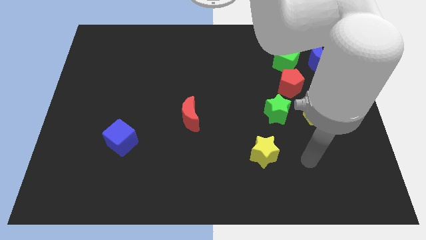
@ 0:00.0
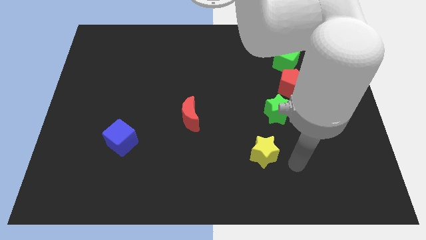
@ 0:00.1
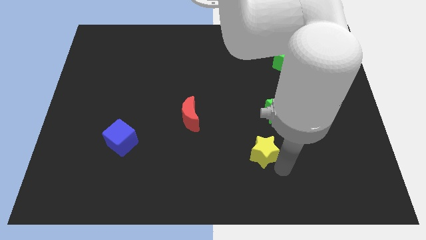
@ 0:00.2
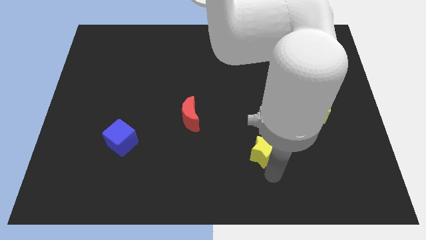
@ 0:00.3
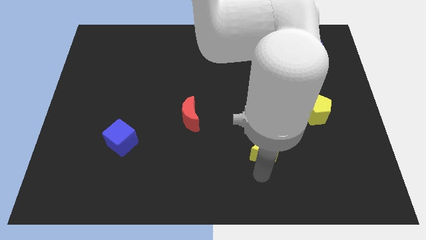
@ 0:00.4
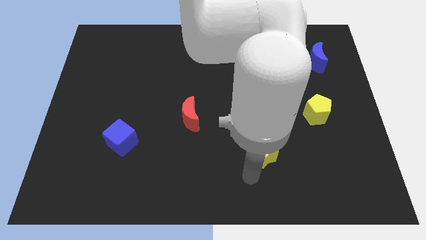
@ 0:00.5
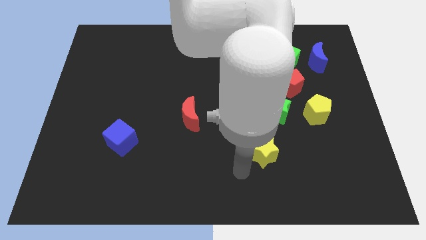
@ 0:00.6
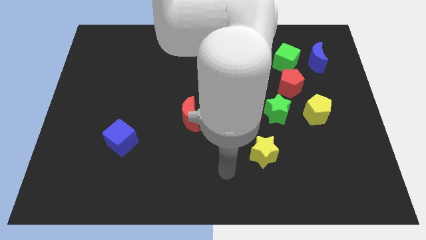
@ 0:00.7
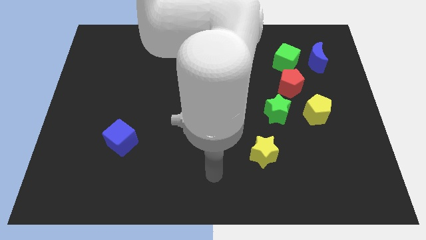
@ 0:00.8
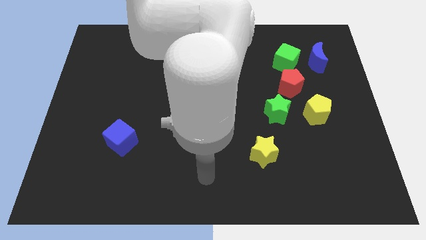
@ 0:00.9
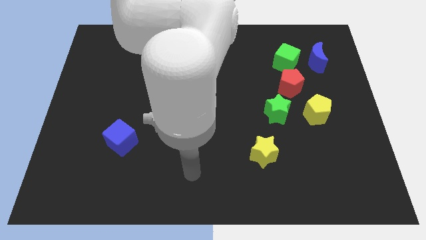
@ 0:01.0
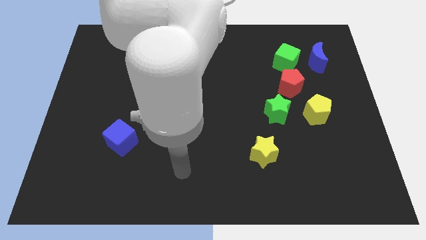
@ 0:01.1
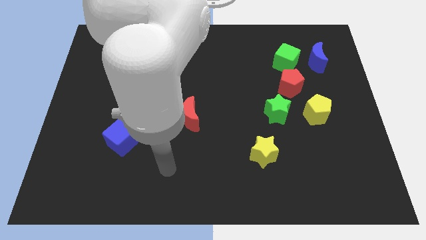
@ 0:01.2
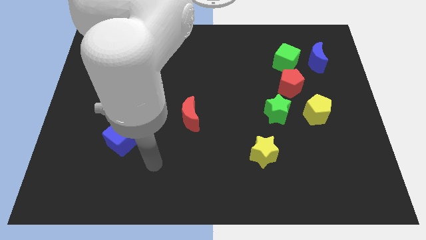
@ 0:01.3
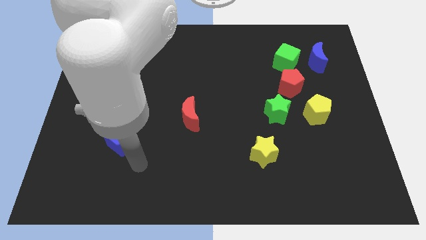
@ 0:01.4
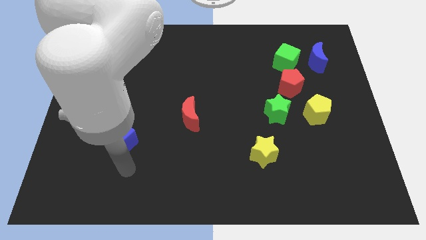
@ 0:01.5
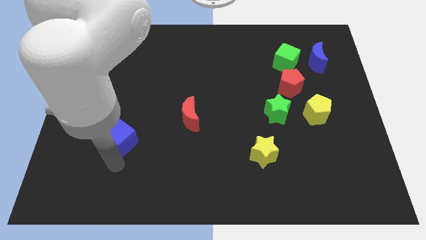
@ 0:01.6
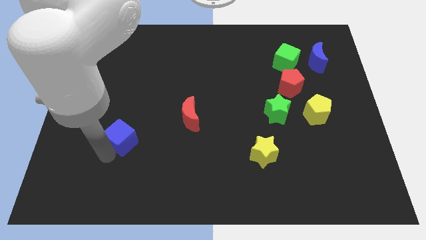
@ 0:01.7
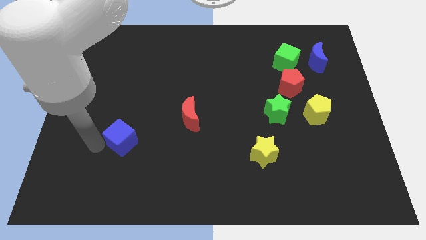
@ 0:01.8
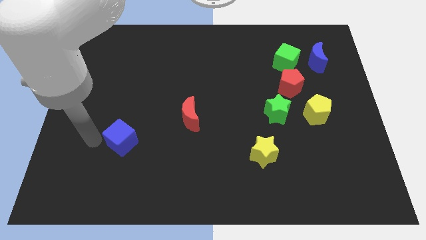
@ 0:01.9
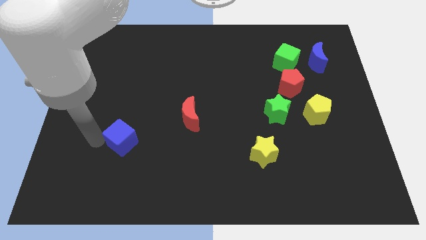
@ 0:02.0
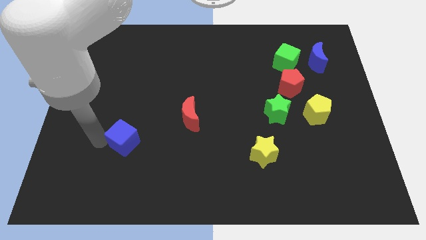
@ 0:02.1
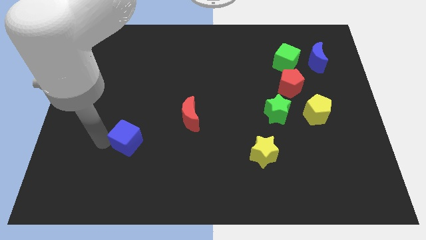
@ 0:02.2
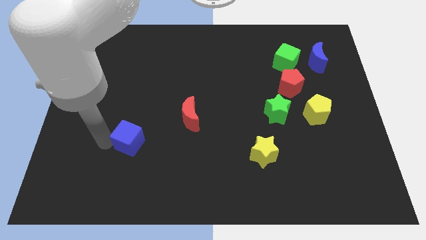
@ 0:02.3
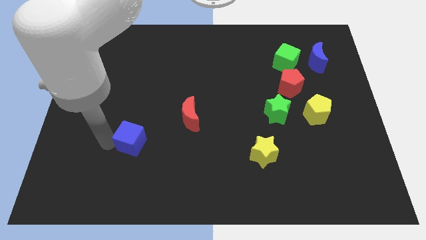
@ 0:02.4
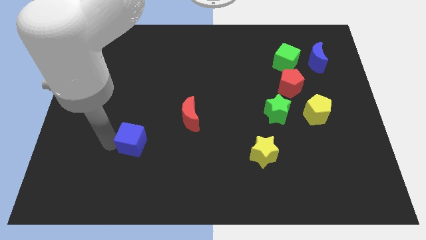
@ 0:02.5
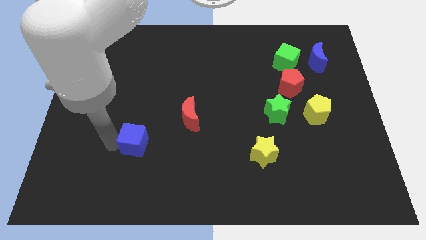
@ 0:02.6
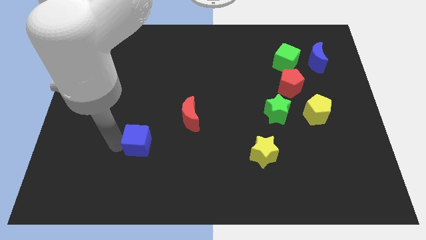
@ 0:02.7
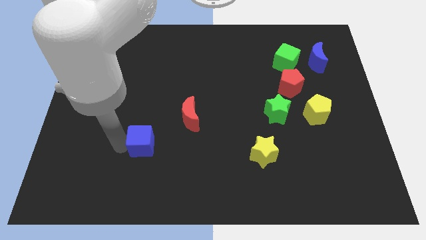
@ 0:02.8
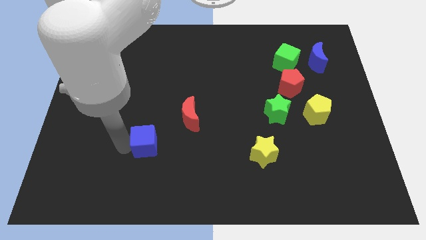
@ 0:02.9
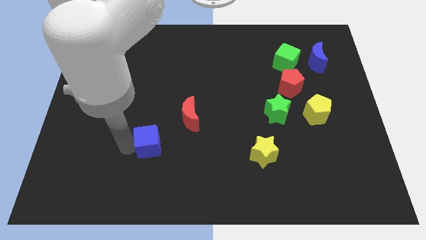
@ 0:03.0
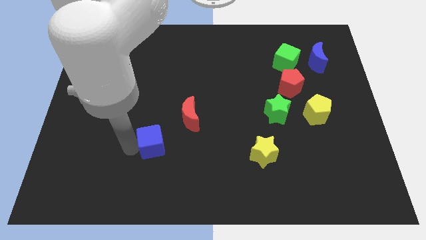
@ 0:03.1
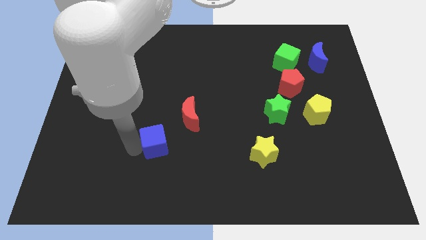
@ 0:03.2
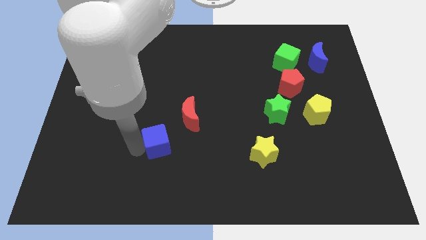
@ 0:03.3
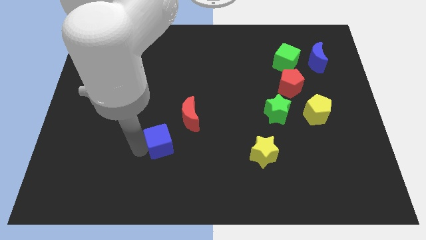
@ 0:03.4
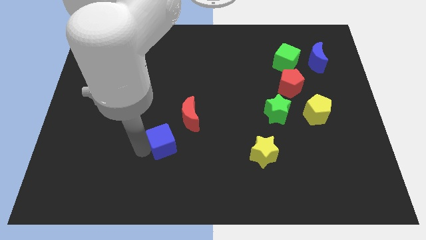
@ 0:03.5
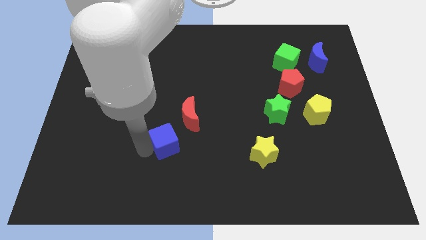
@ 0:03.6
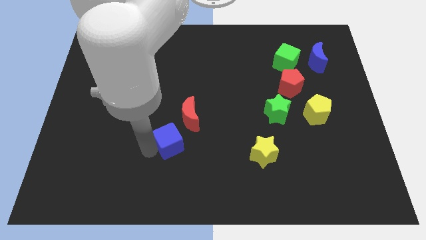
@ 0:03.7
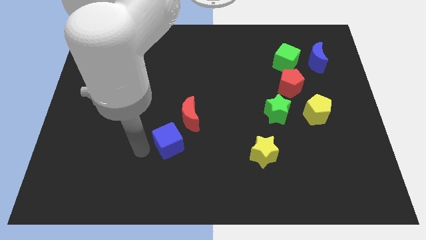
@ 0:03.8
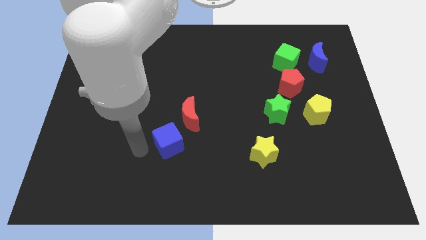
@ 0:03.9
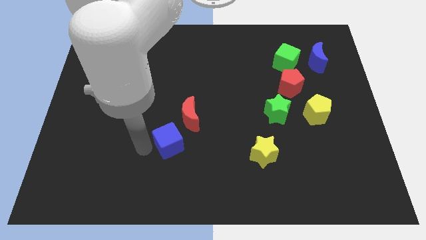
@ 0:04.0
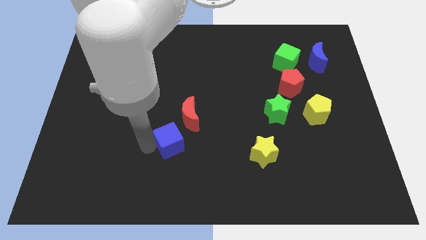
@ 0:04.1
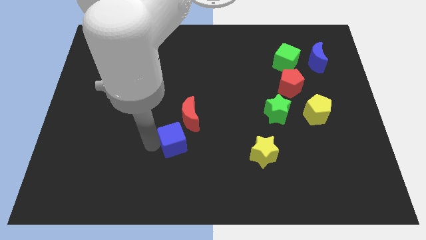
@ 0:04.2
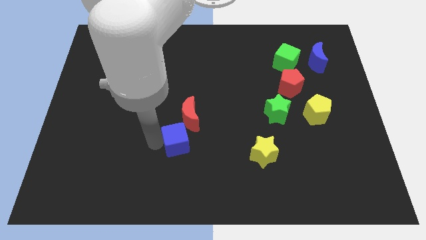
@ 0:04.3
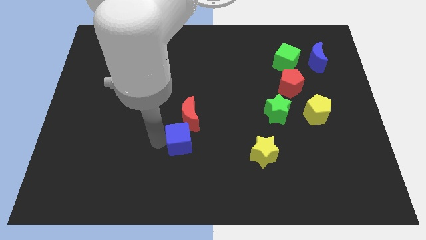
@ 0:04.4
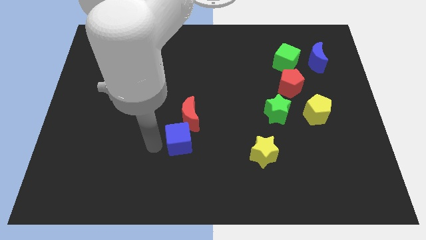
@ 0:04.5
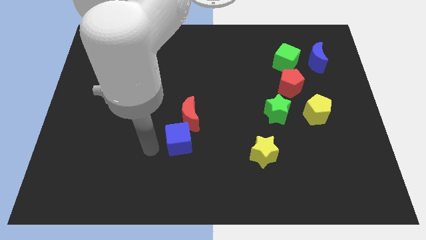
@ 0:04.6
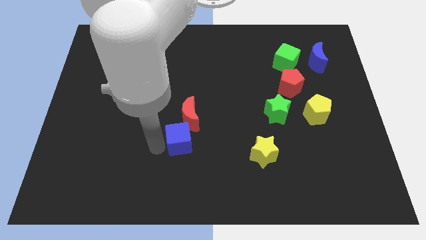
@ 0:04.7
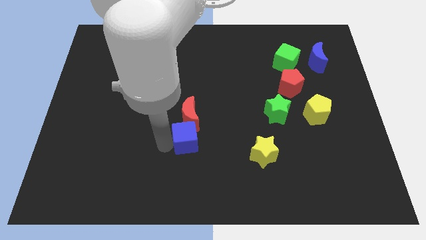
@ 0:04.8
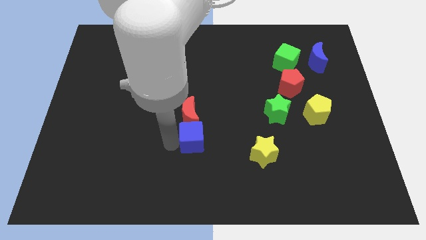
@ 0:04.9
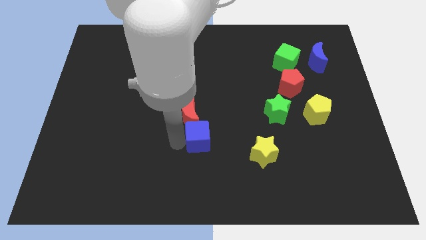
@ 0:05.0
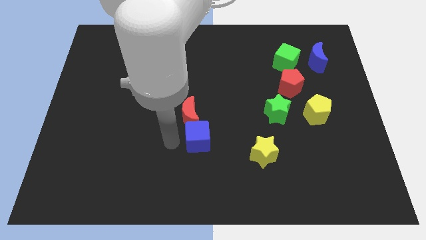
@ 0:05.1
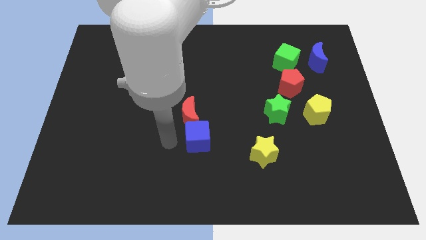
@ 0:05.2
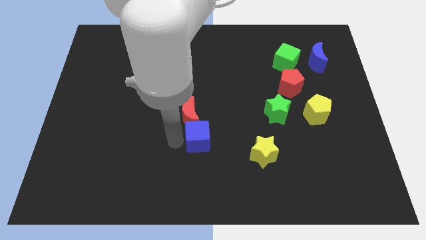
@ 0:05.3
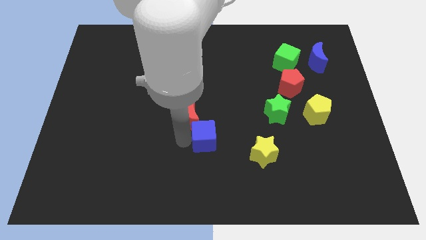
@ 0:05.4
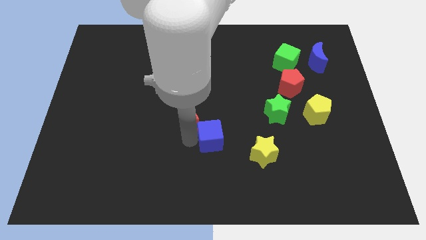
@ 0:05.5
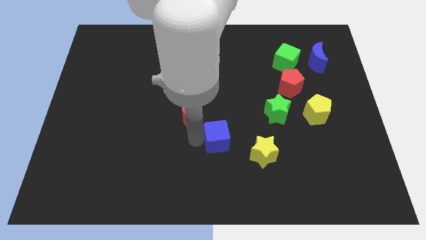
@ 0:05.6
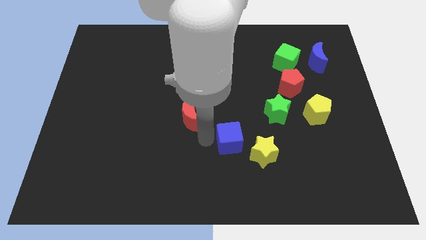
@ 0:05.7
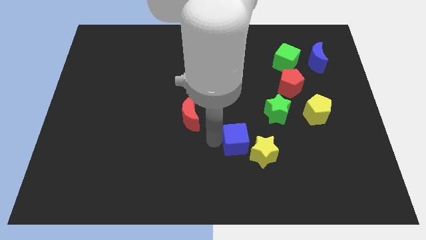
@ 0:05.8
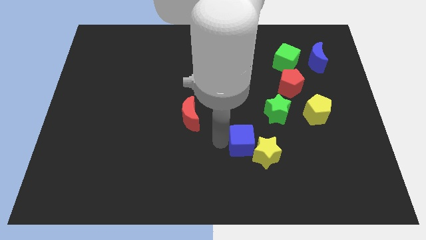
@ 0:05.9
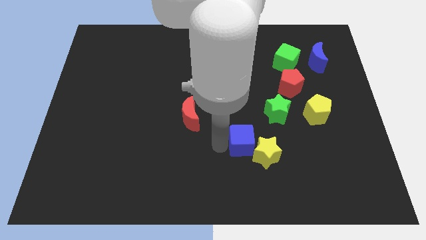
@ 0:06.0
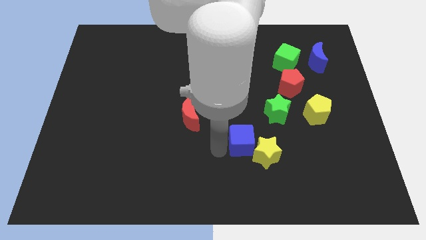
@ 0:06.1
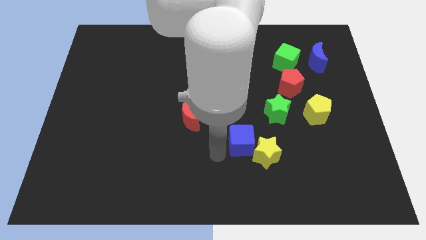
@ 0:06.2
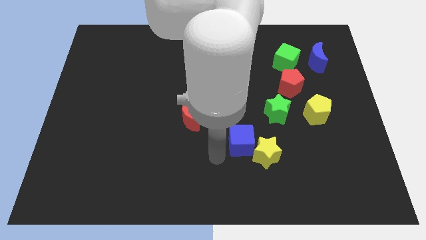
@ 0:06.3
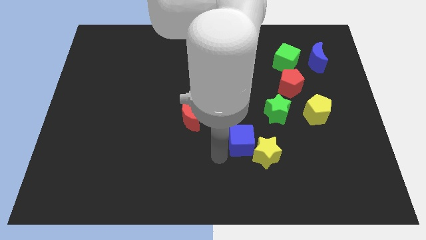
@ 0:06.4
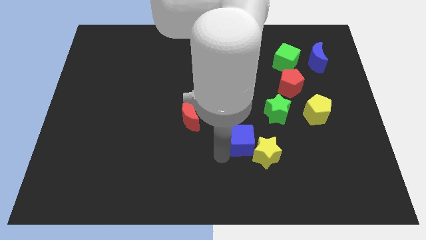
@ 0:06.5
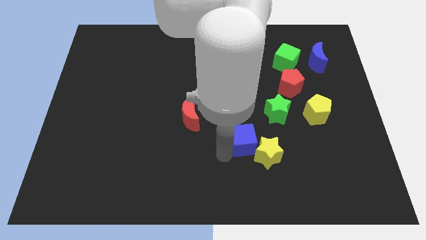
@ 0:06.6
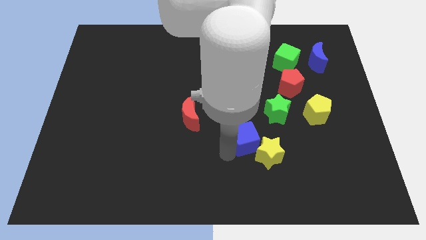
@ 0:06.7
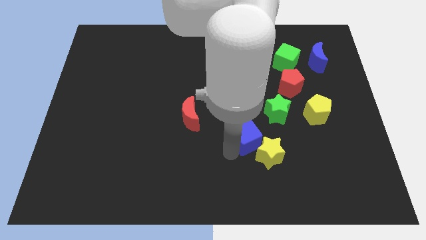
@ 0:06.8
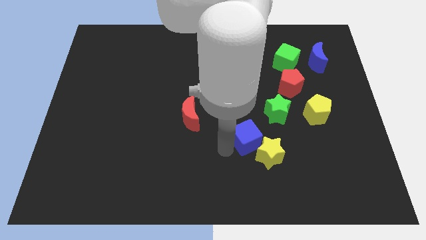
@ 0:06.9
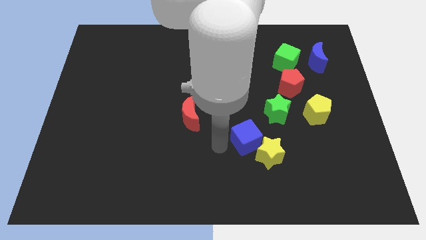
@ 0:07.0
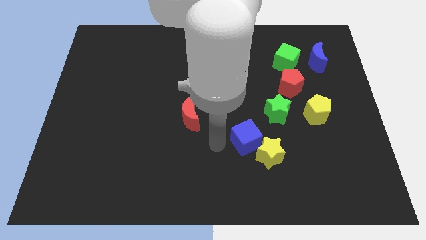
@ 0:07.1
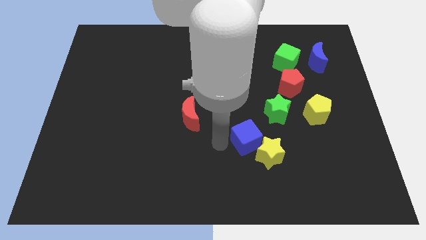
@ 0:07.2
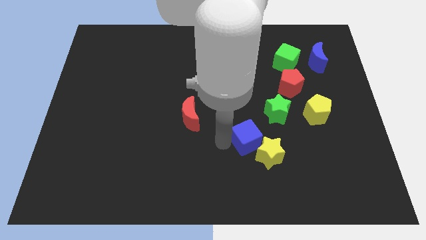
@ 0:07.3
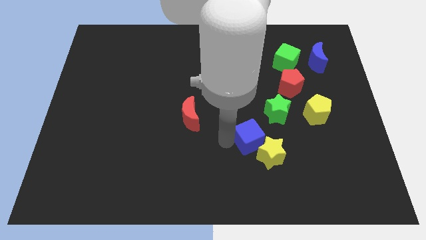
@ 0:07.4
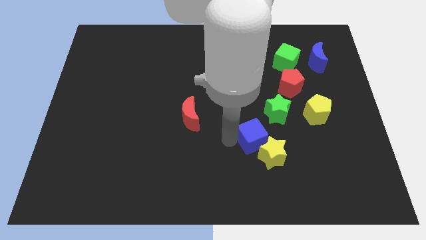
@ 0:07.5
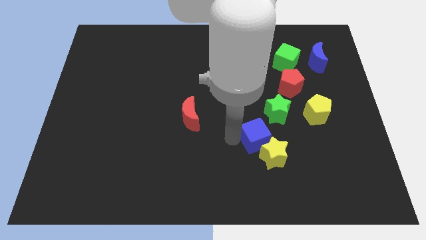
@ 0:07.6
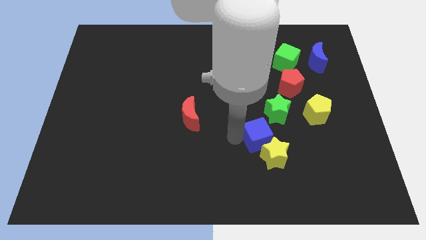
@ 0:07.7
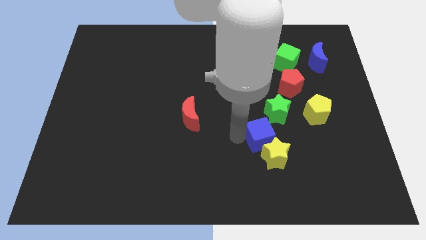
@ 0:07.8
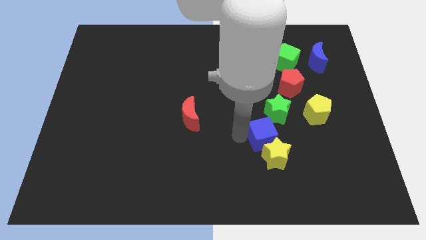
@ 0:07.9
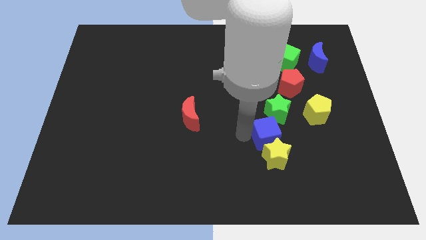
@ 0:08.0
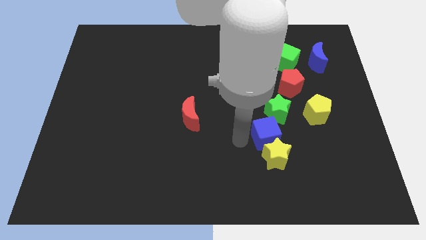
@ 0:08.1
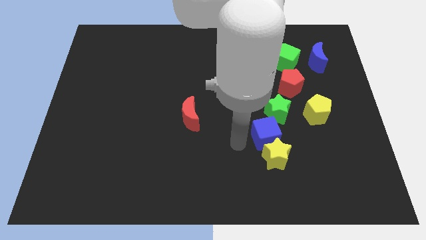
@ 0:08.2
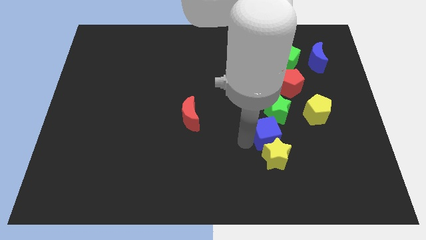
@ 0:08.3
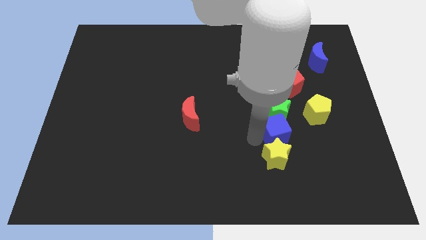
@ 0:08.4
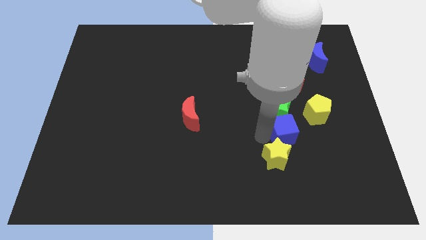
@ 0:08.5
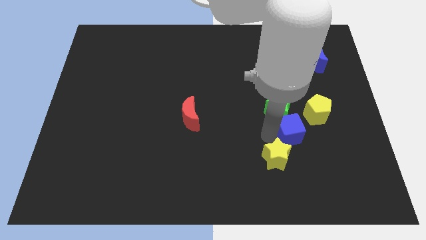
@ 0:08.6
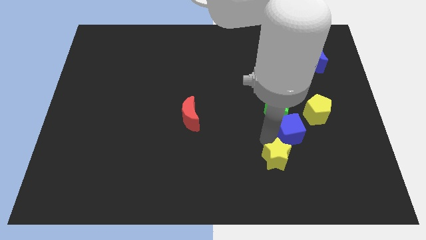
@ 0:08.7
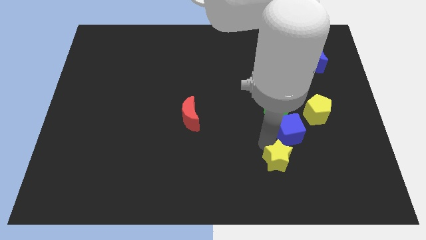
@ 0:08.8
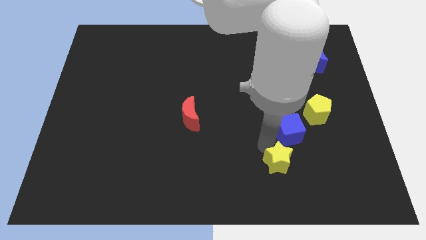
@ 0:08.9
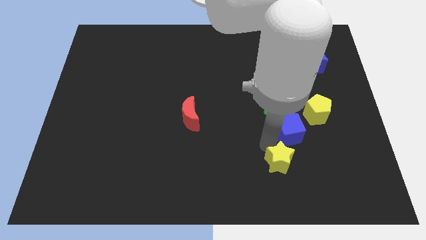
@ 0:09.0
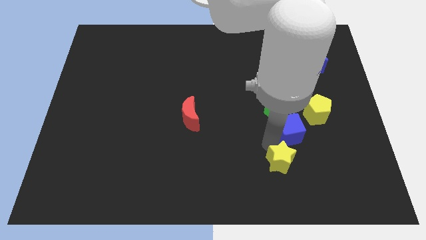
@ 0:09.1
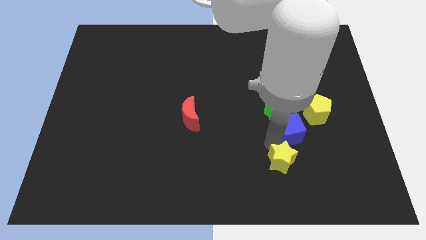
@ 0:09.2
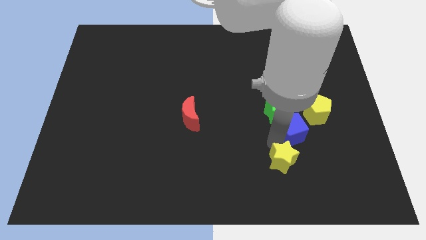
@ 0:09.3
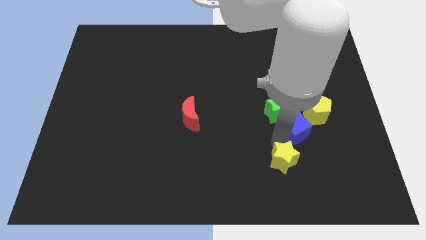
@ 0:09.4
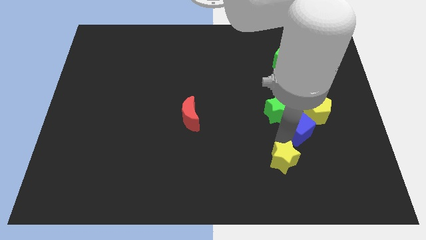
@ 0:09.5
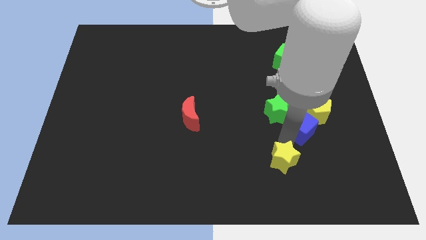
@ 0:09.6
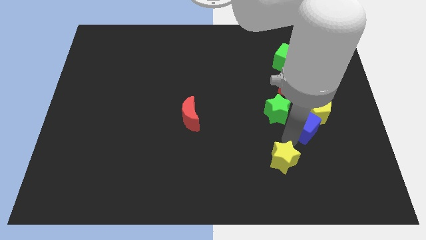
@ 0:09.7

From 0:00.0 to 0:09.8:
slide the blue cube towards the yellow pentagon
